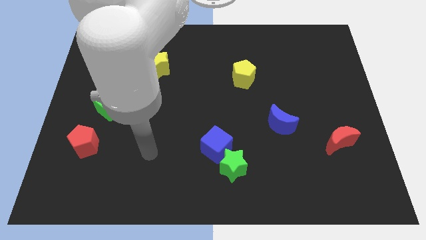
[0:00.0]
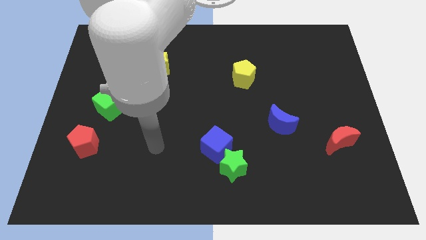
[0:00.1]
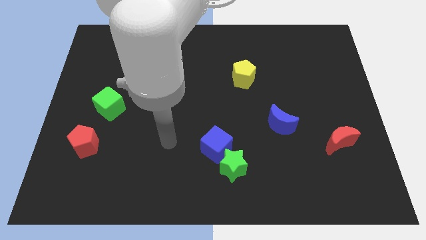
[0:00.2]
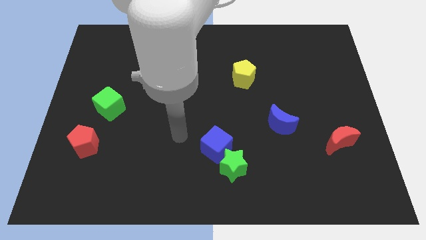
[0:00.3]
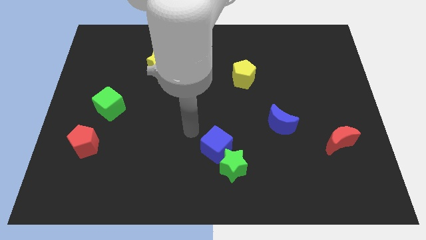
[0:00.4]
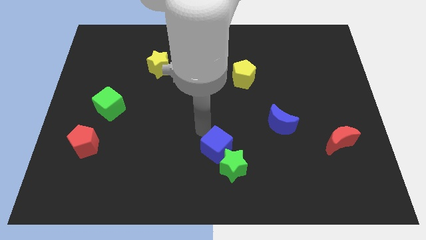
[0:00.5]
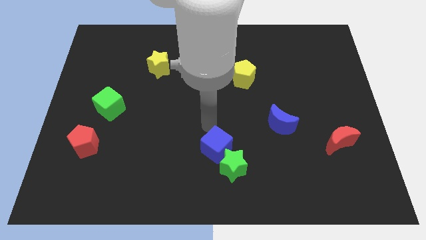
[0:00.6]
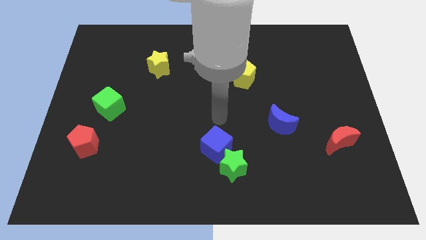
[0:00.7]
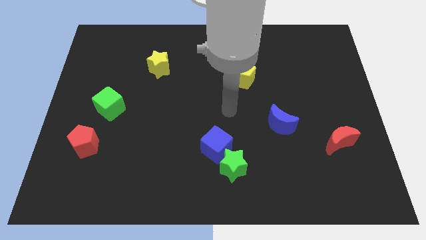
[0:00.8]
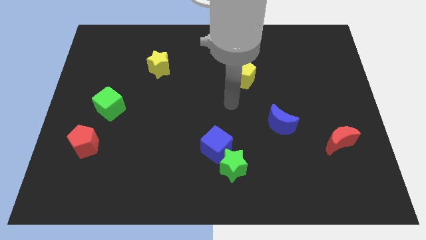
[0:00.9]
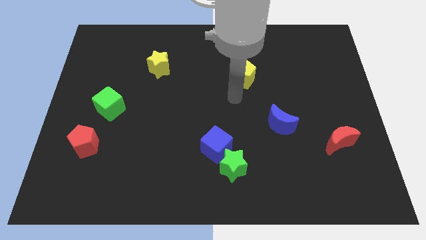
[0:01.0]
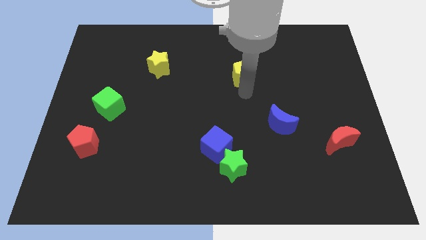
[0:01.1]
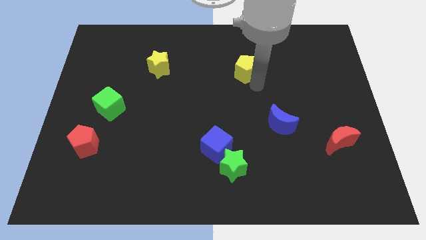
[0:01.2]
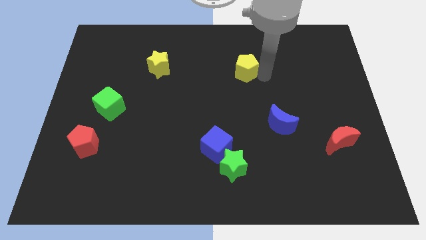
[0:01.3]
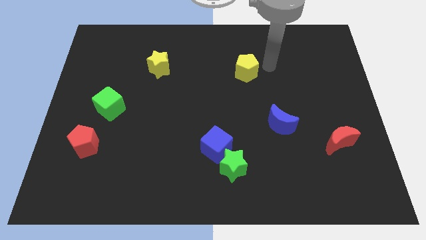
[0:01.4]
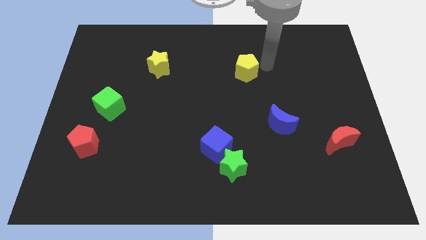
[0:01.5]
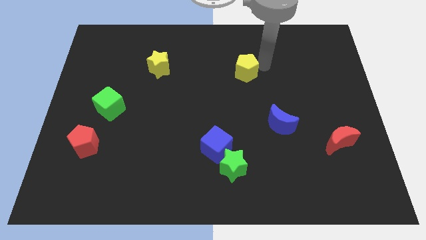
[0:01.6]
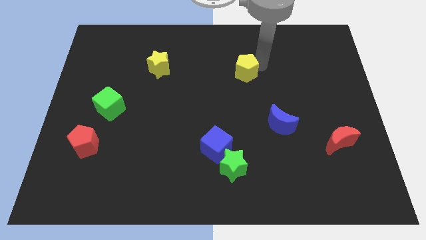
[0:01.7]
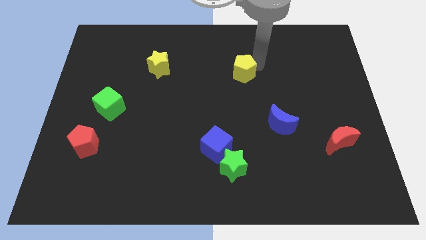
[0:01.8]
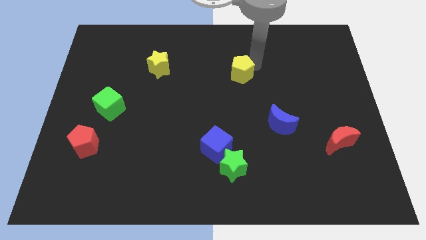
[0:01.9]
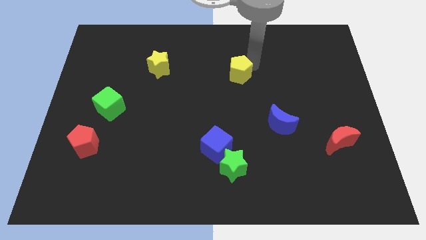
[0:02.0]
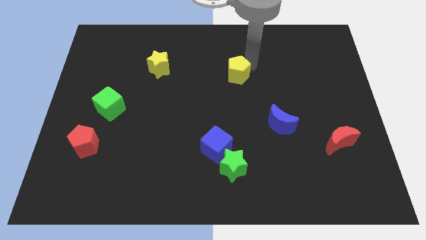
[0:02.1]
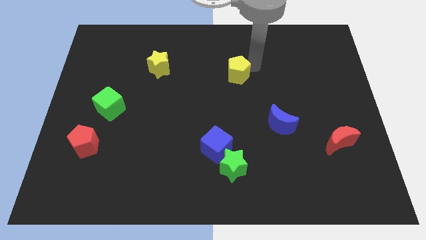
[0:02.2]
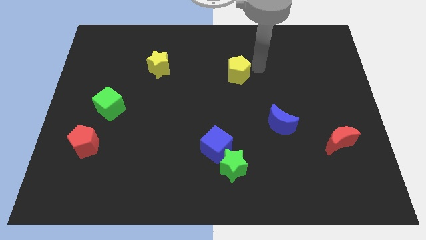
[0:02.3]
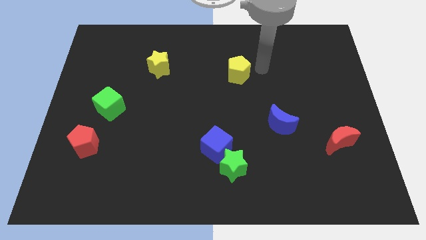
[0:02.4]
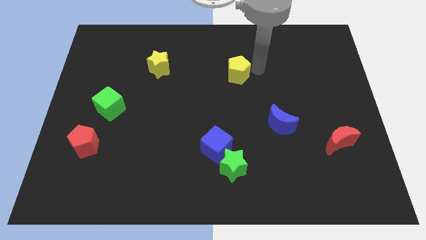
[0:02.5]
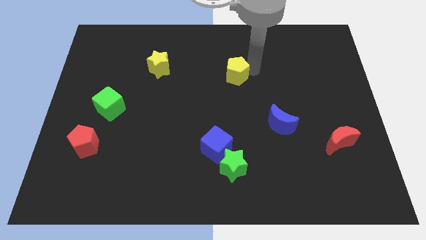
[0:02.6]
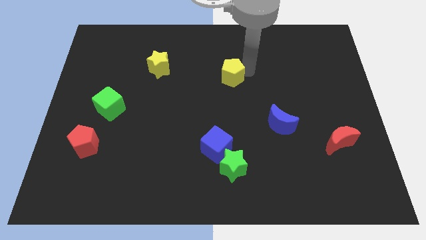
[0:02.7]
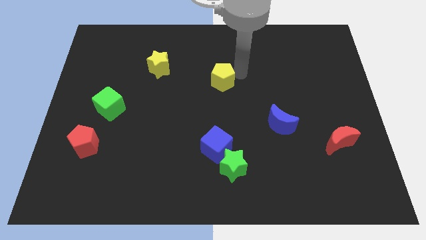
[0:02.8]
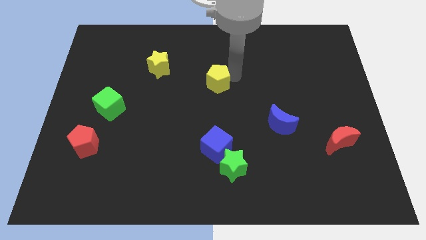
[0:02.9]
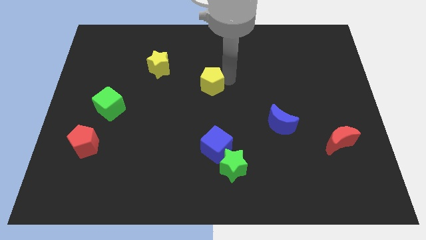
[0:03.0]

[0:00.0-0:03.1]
slide the yellow pentagon a little bit to the left

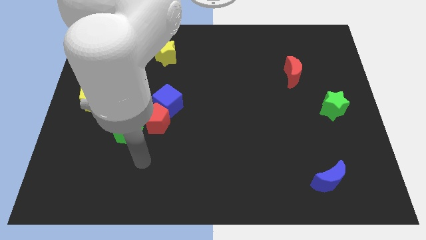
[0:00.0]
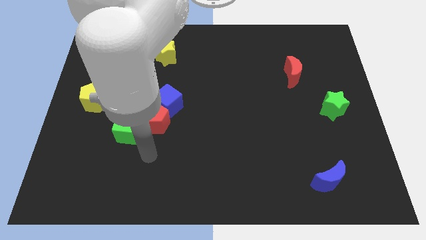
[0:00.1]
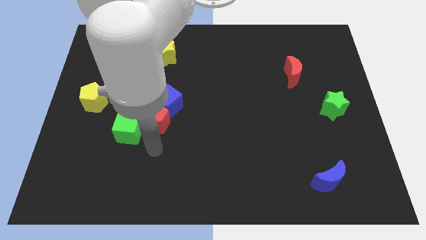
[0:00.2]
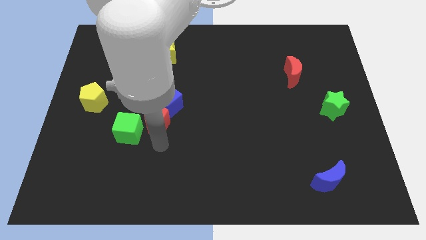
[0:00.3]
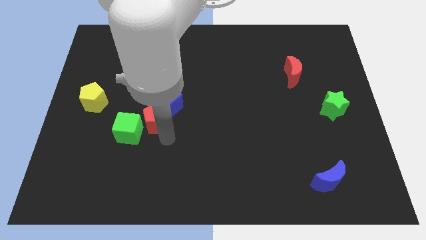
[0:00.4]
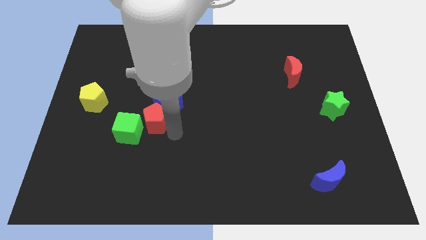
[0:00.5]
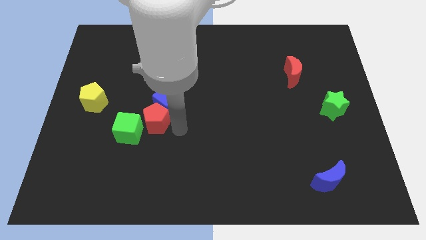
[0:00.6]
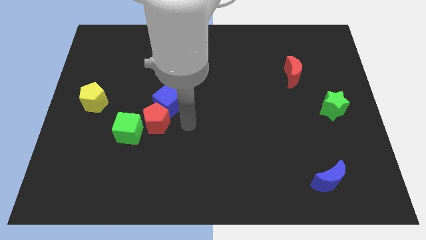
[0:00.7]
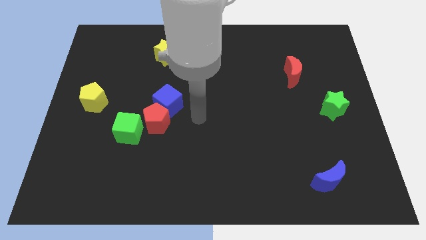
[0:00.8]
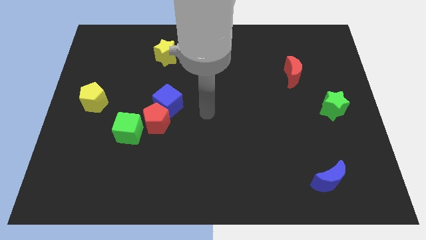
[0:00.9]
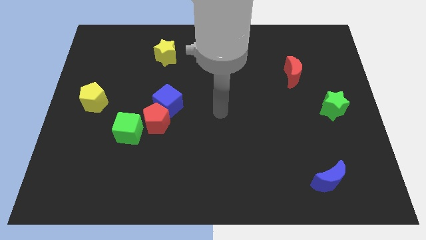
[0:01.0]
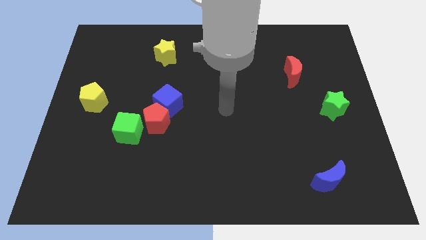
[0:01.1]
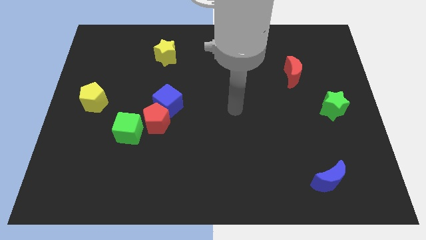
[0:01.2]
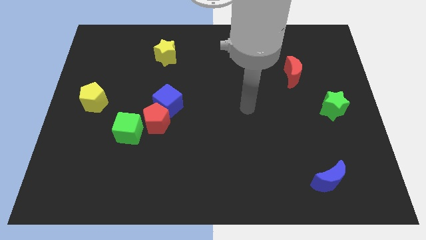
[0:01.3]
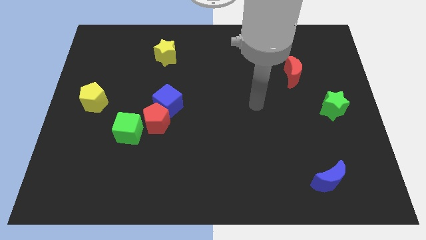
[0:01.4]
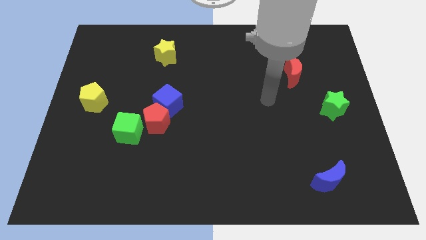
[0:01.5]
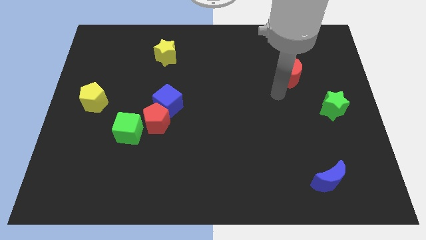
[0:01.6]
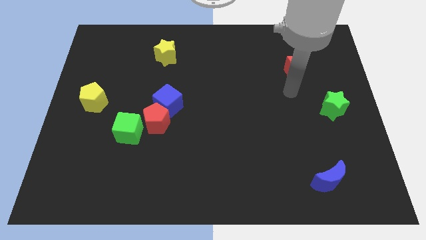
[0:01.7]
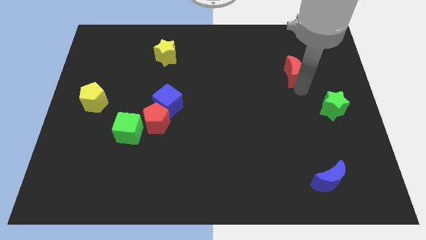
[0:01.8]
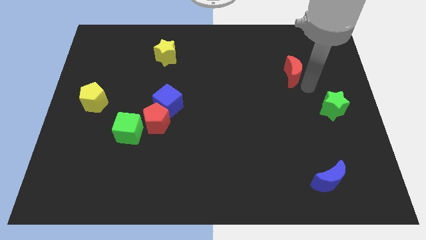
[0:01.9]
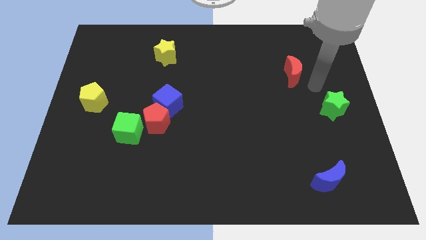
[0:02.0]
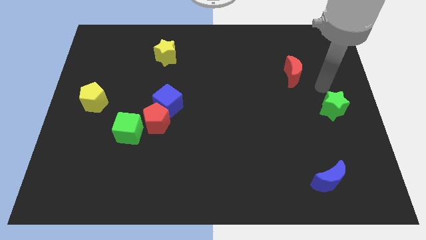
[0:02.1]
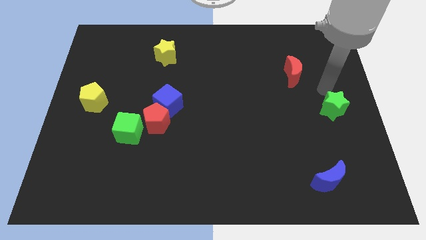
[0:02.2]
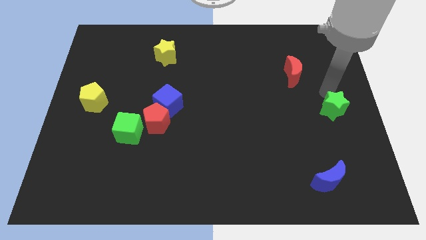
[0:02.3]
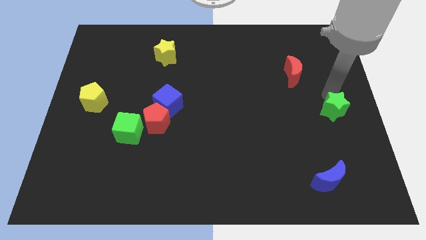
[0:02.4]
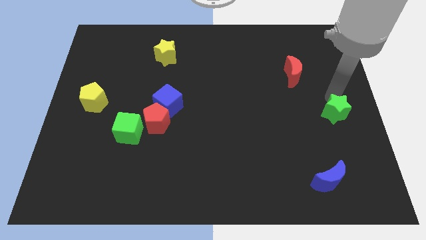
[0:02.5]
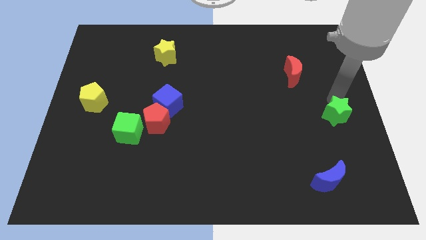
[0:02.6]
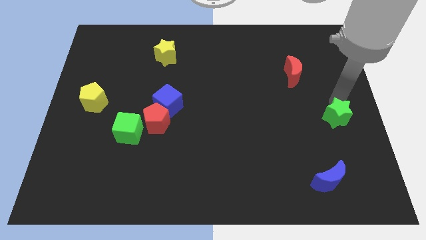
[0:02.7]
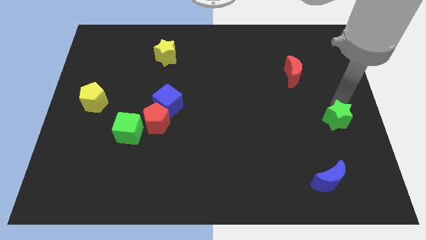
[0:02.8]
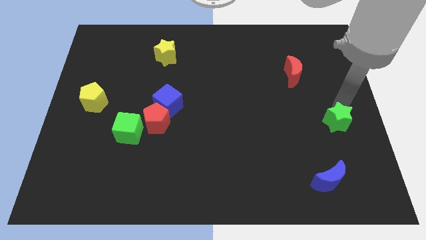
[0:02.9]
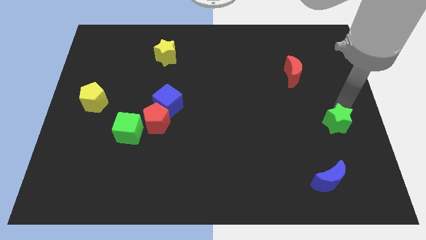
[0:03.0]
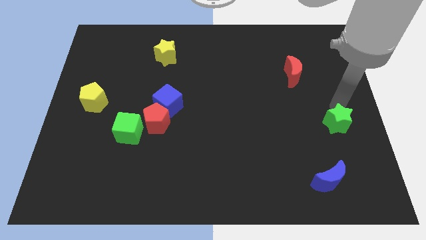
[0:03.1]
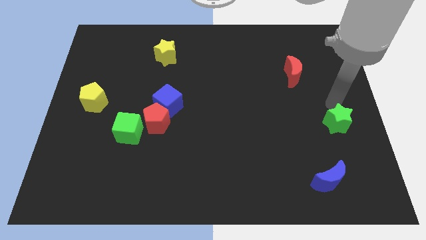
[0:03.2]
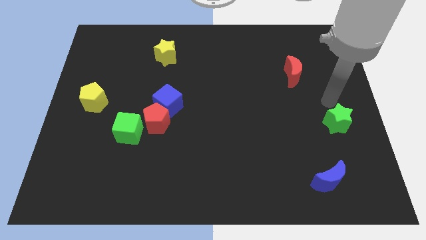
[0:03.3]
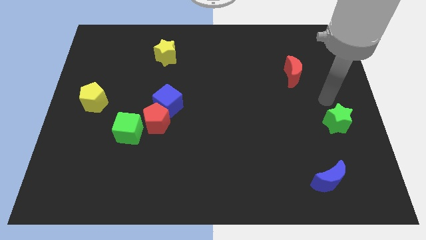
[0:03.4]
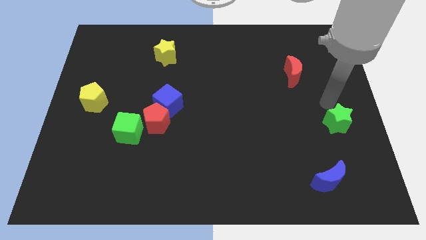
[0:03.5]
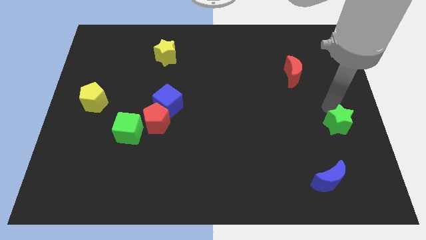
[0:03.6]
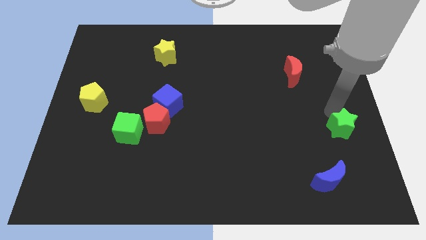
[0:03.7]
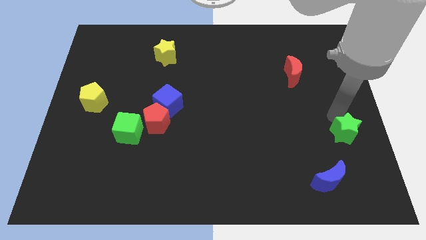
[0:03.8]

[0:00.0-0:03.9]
slide the green star downwards a bit

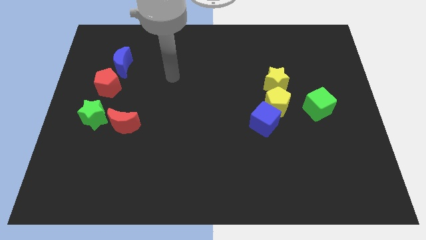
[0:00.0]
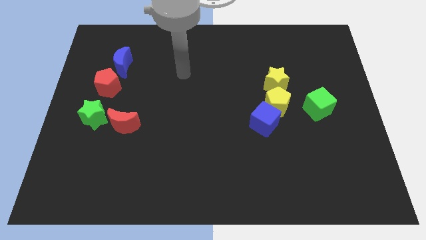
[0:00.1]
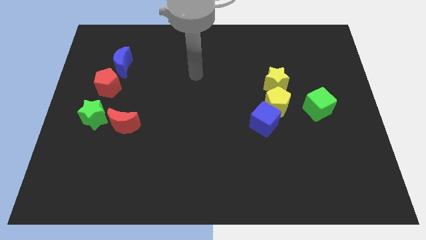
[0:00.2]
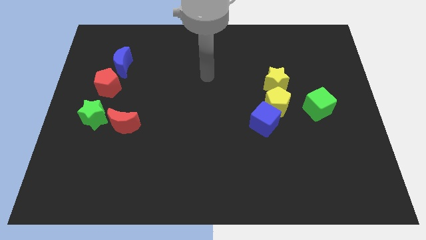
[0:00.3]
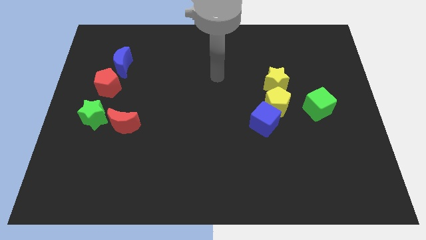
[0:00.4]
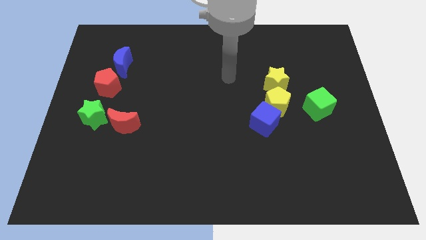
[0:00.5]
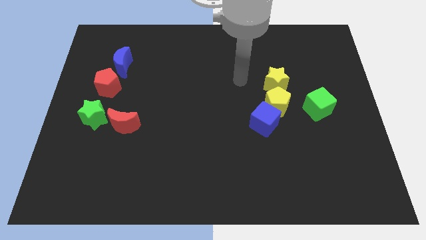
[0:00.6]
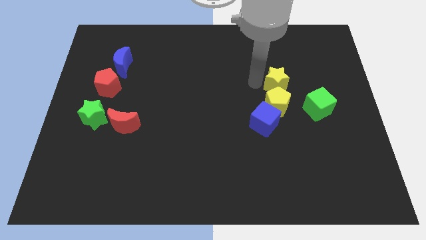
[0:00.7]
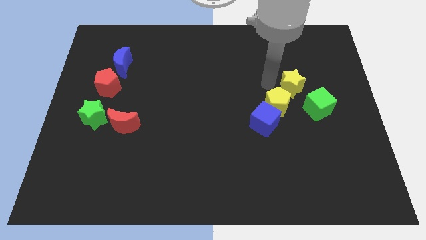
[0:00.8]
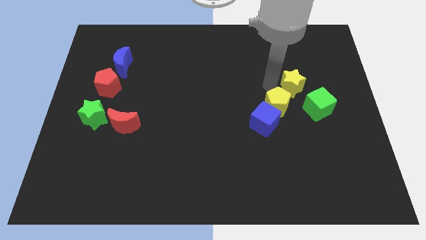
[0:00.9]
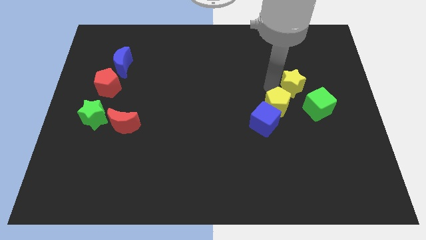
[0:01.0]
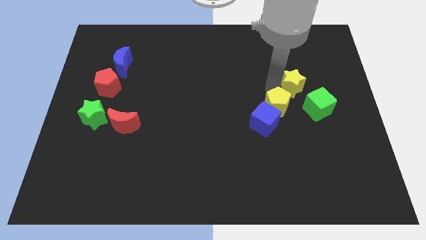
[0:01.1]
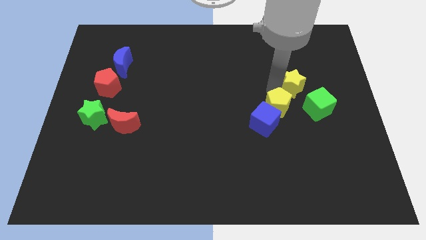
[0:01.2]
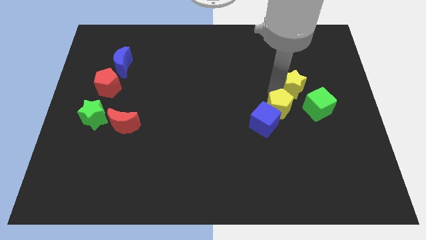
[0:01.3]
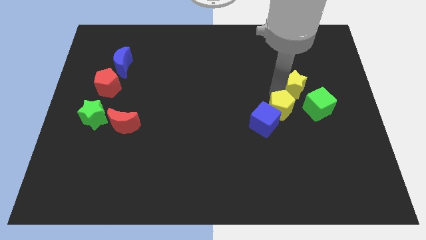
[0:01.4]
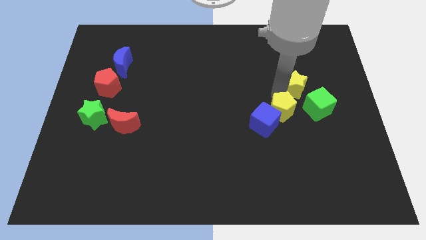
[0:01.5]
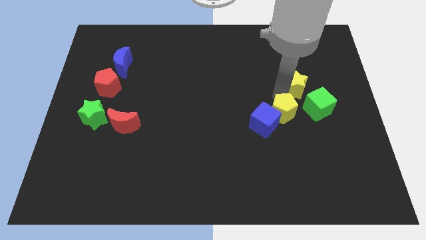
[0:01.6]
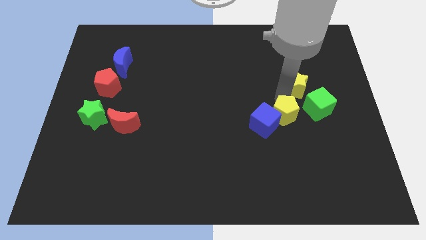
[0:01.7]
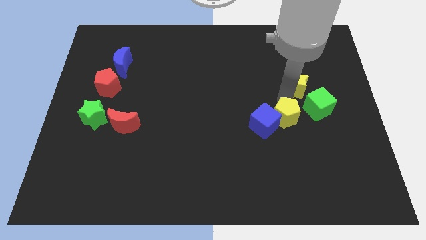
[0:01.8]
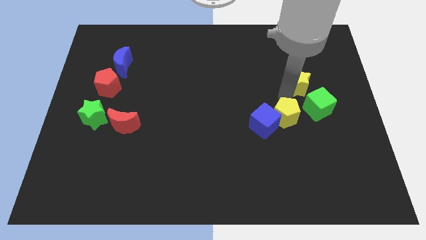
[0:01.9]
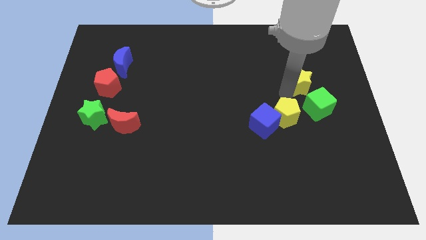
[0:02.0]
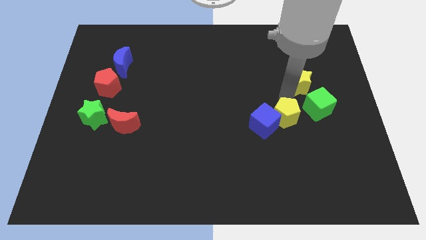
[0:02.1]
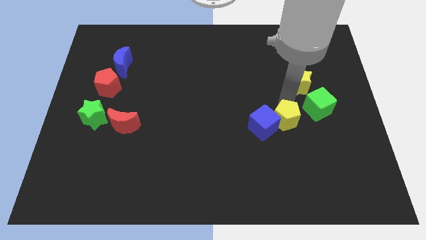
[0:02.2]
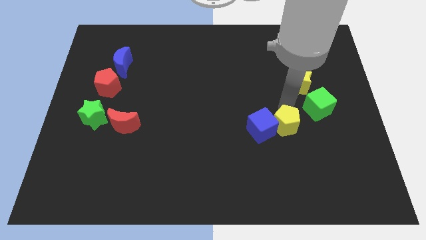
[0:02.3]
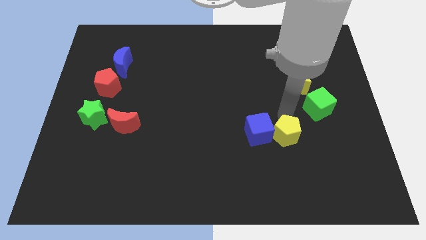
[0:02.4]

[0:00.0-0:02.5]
slightly move the yellow pentagon down
